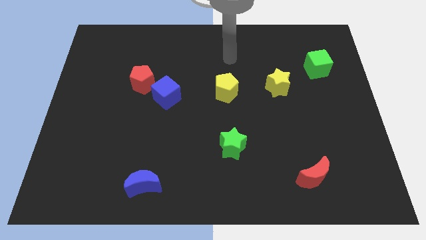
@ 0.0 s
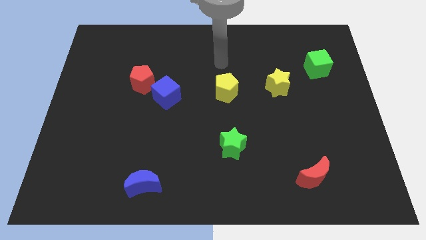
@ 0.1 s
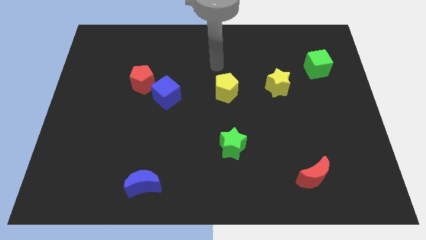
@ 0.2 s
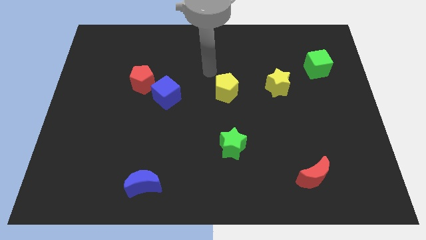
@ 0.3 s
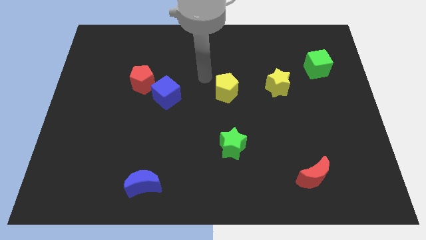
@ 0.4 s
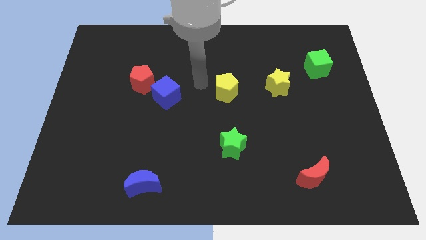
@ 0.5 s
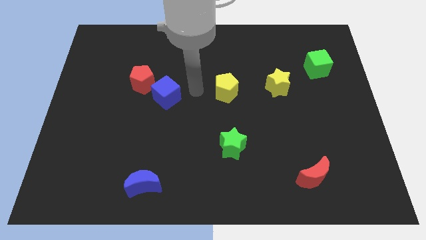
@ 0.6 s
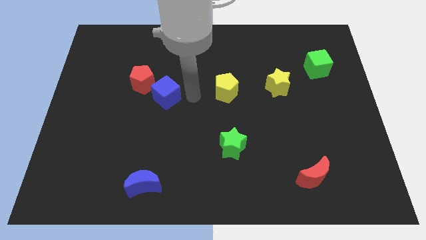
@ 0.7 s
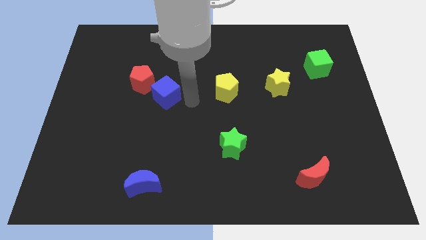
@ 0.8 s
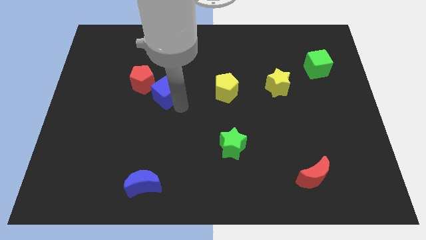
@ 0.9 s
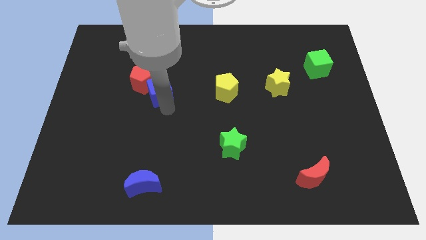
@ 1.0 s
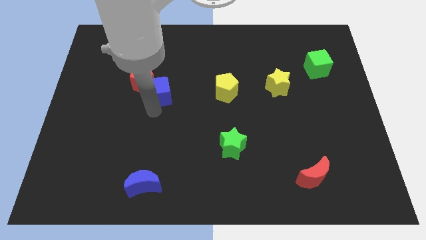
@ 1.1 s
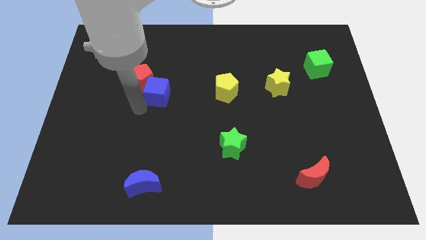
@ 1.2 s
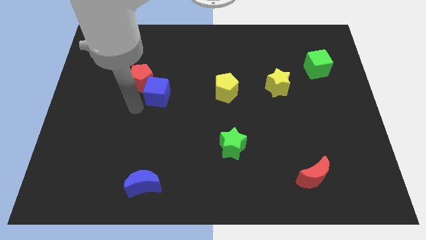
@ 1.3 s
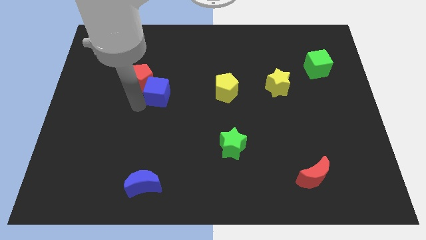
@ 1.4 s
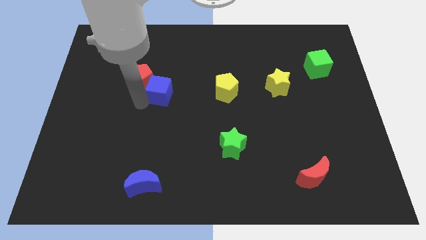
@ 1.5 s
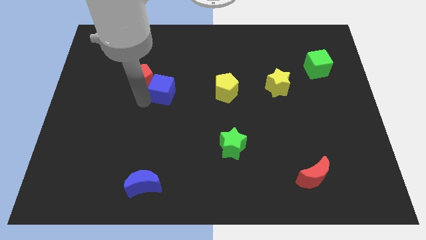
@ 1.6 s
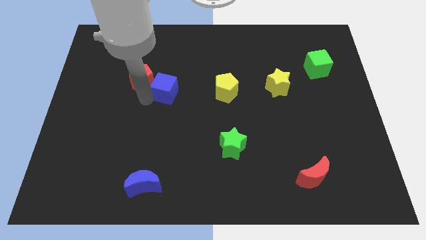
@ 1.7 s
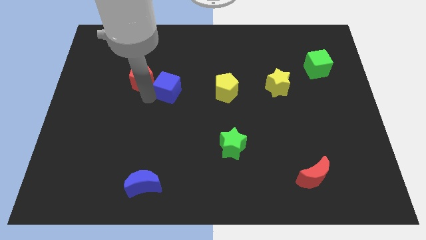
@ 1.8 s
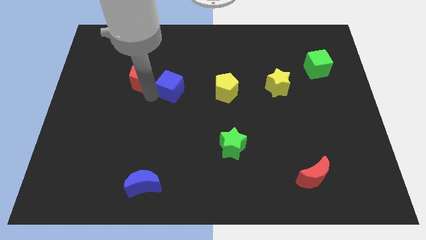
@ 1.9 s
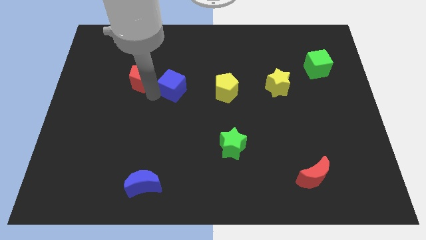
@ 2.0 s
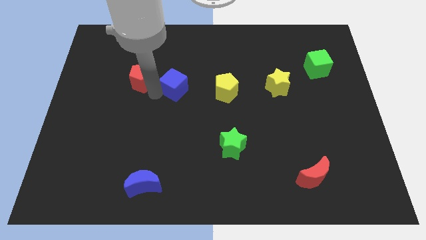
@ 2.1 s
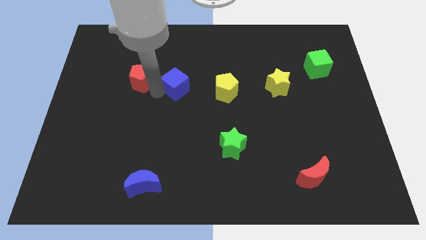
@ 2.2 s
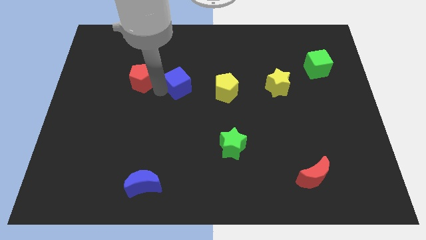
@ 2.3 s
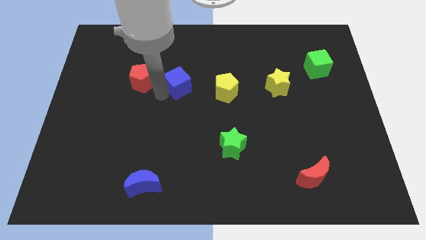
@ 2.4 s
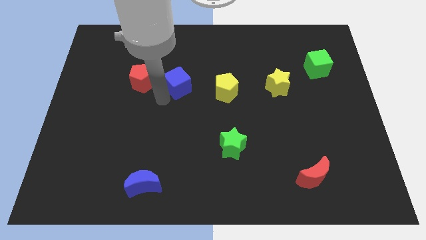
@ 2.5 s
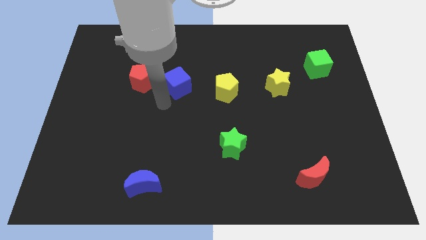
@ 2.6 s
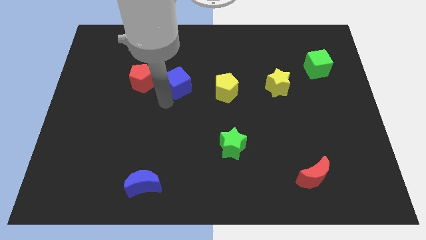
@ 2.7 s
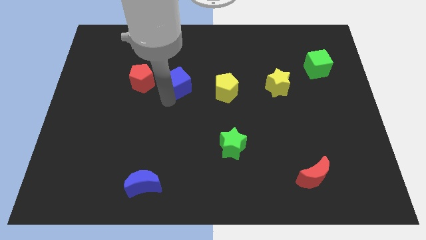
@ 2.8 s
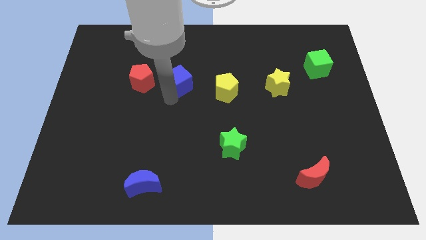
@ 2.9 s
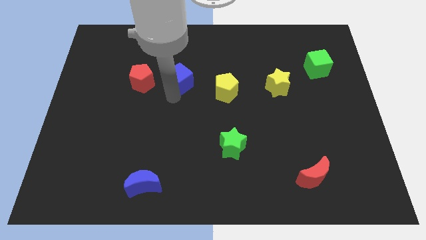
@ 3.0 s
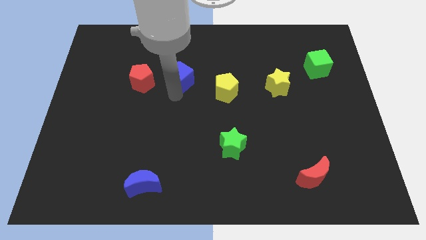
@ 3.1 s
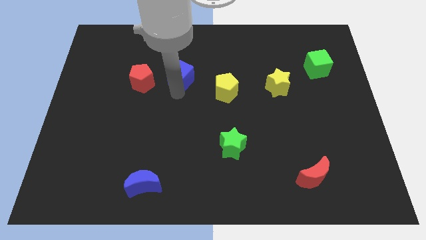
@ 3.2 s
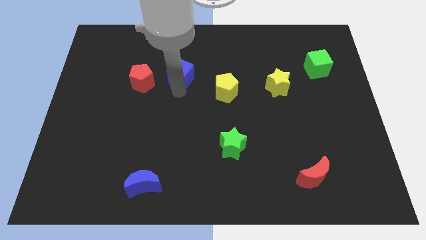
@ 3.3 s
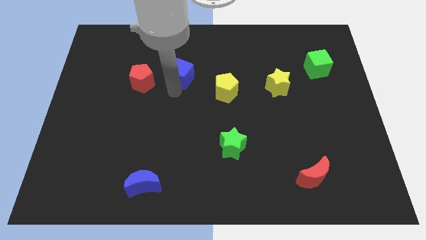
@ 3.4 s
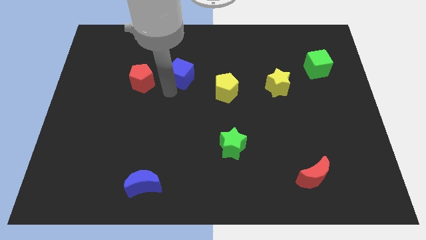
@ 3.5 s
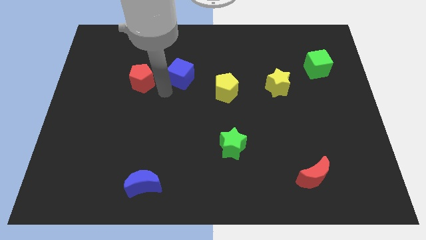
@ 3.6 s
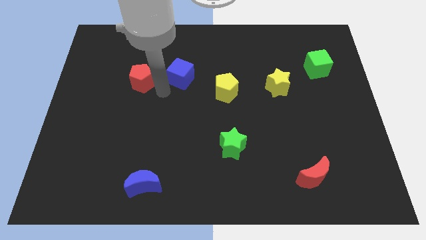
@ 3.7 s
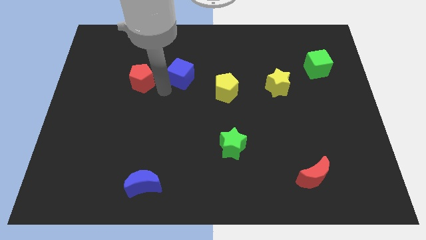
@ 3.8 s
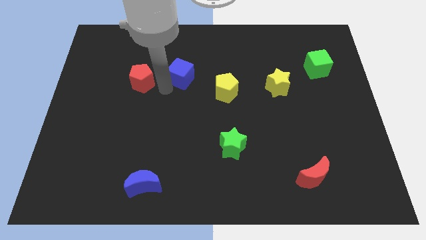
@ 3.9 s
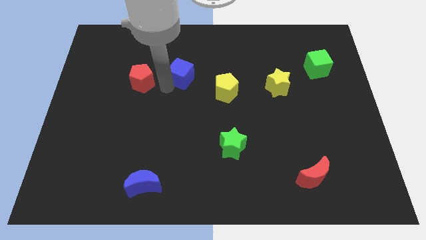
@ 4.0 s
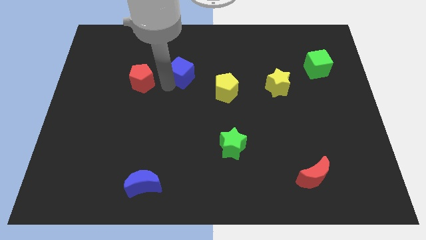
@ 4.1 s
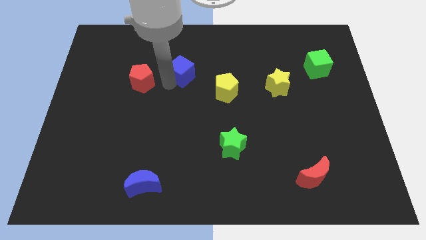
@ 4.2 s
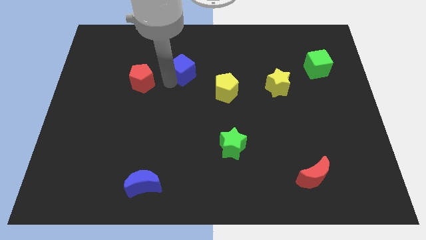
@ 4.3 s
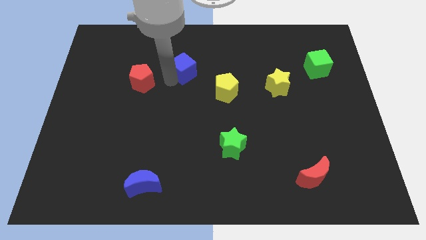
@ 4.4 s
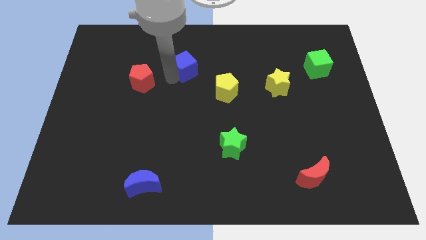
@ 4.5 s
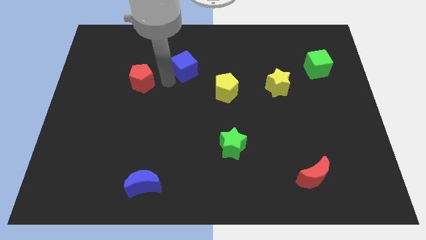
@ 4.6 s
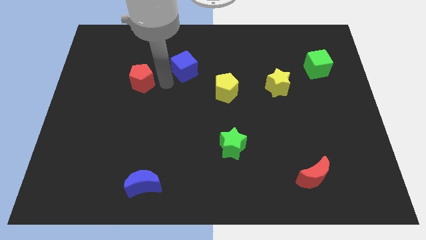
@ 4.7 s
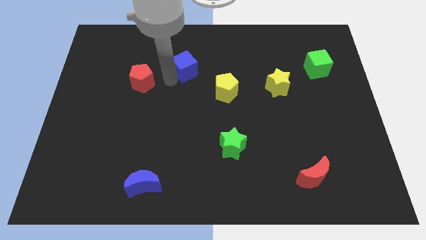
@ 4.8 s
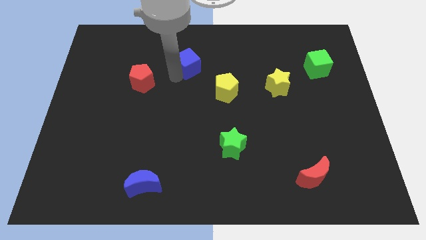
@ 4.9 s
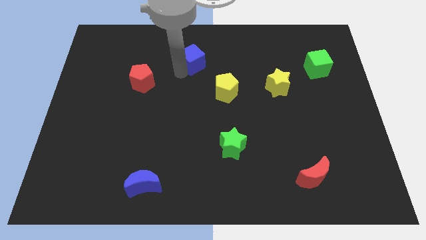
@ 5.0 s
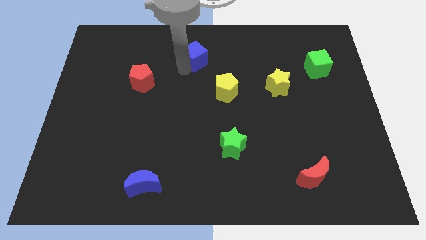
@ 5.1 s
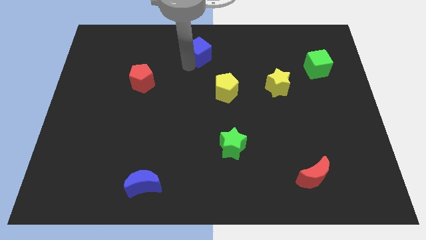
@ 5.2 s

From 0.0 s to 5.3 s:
move the blue cube to the towards your base

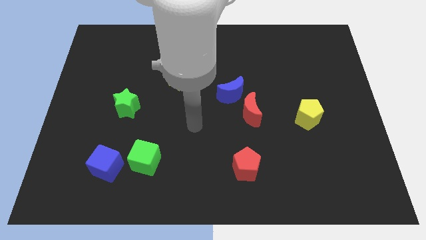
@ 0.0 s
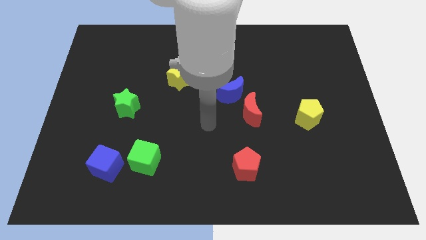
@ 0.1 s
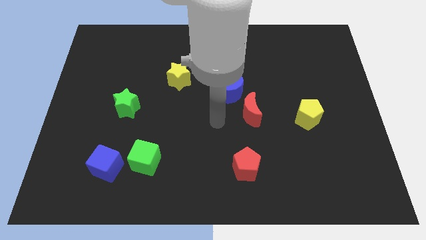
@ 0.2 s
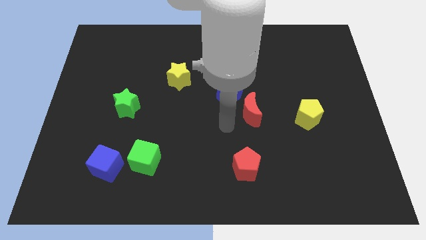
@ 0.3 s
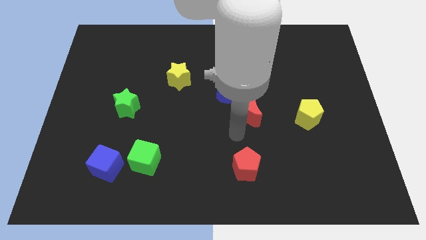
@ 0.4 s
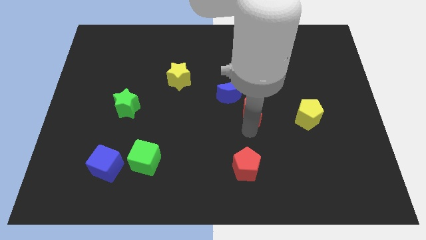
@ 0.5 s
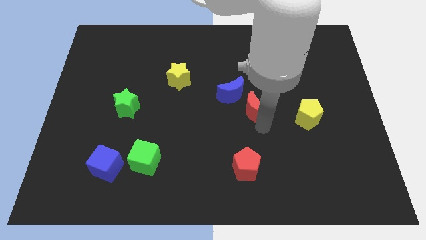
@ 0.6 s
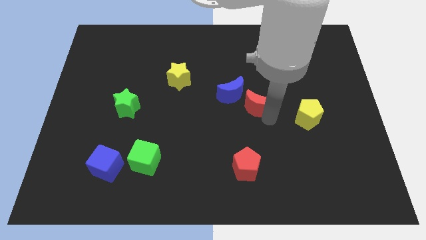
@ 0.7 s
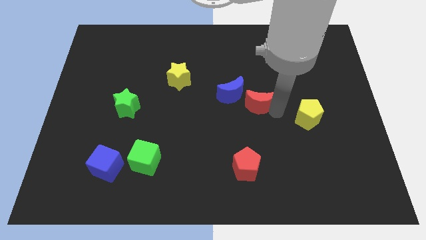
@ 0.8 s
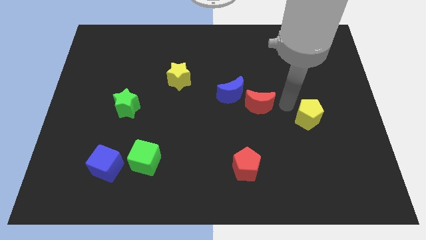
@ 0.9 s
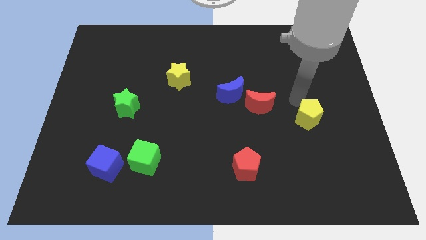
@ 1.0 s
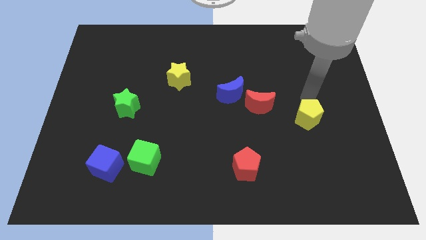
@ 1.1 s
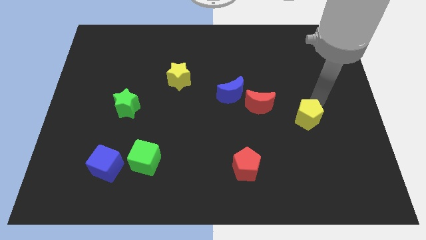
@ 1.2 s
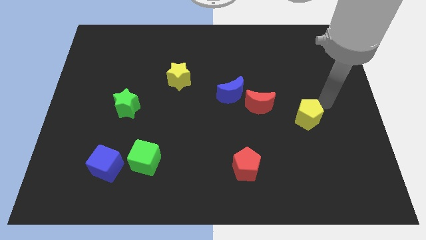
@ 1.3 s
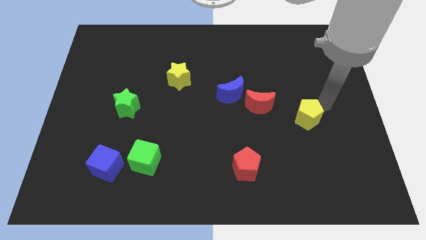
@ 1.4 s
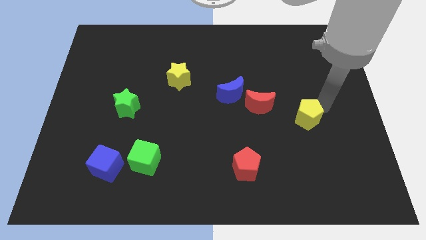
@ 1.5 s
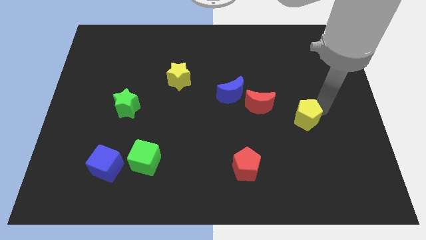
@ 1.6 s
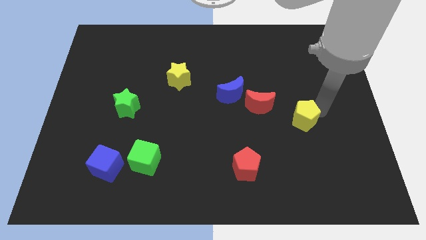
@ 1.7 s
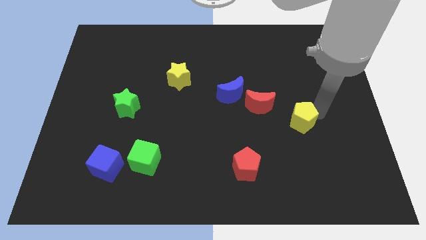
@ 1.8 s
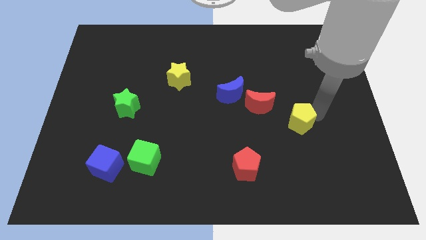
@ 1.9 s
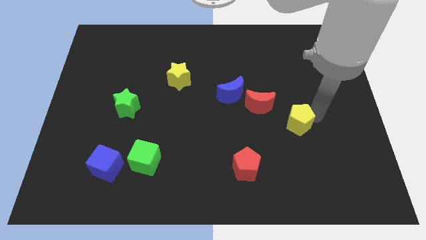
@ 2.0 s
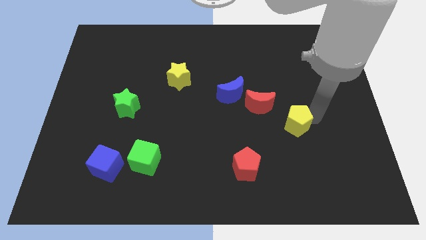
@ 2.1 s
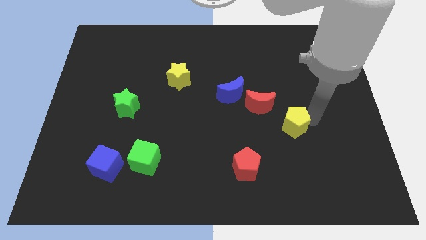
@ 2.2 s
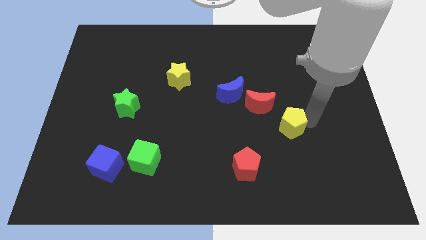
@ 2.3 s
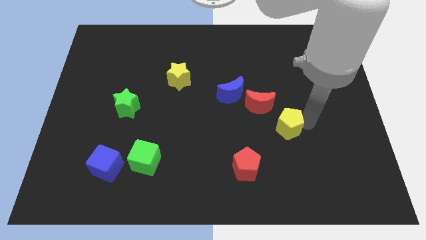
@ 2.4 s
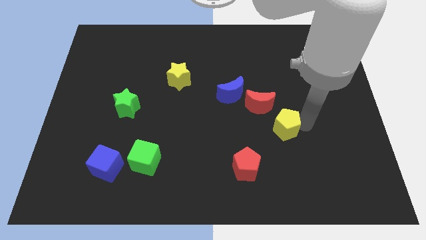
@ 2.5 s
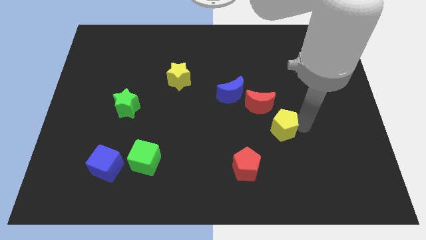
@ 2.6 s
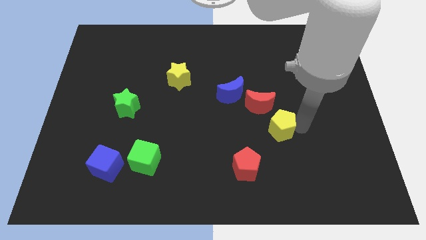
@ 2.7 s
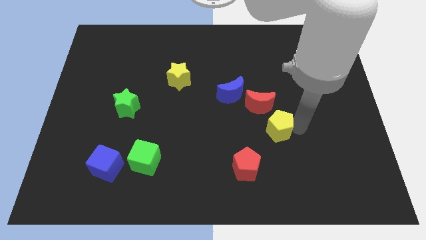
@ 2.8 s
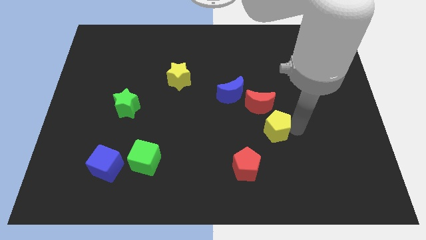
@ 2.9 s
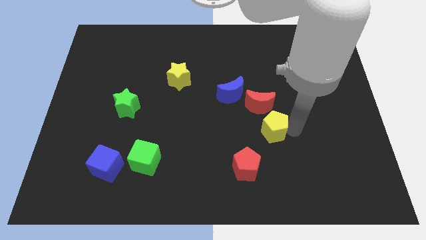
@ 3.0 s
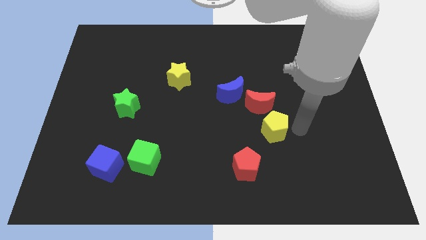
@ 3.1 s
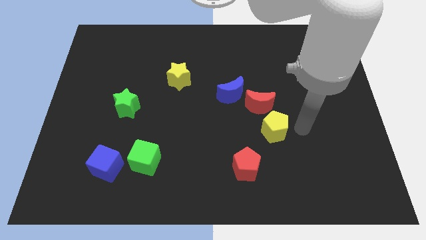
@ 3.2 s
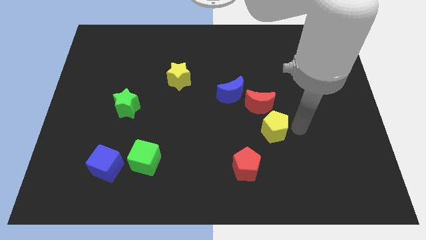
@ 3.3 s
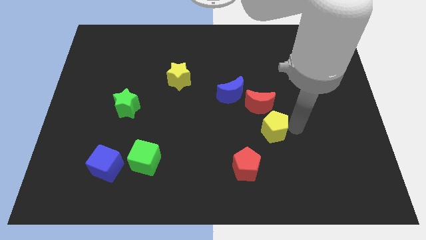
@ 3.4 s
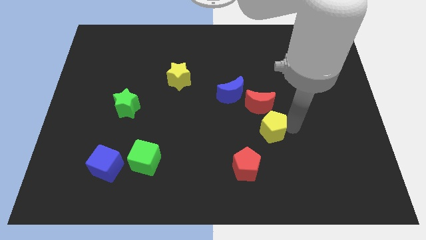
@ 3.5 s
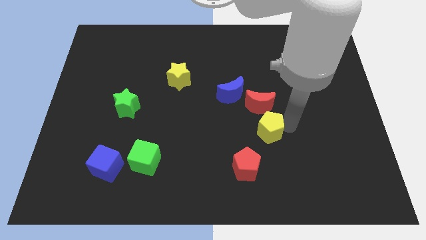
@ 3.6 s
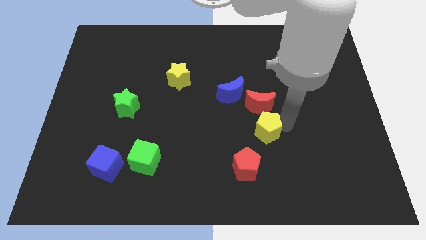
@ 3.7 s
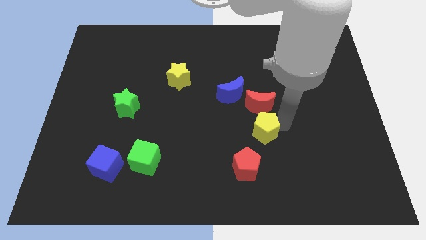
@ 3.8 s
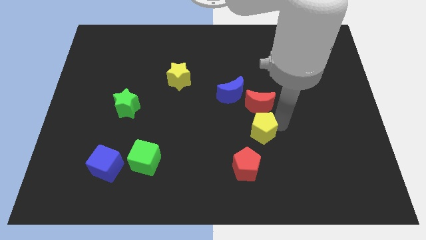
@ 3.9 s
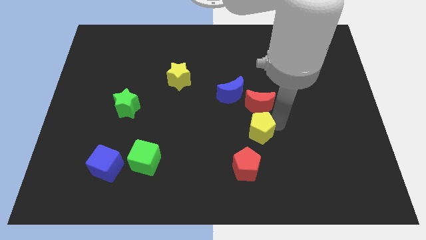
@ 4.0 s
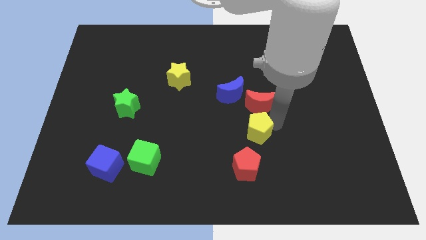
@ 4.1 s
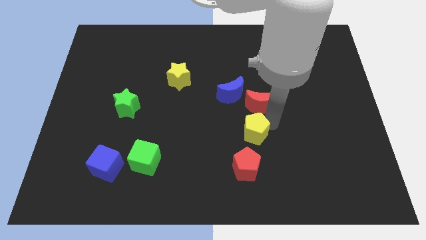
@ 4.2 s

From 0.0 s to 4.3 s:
put the yellow pentagon to the center
